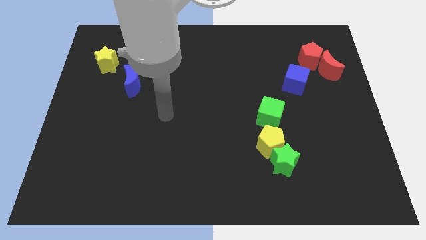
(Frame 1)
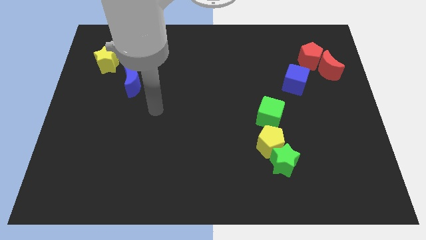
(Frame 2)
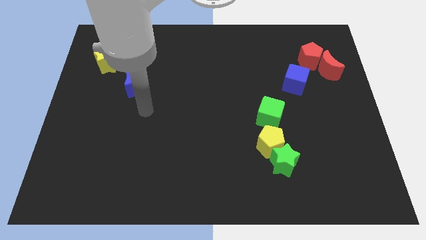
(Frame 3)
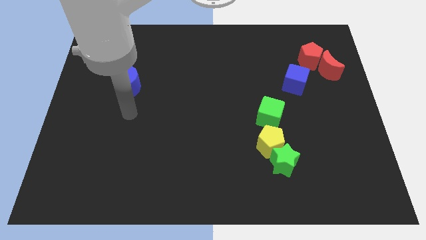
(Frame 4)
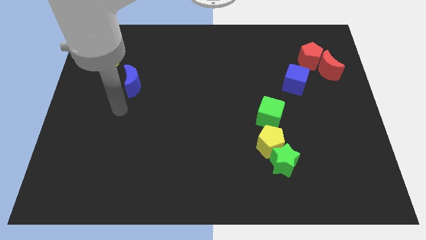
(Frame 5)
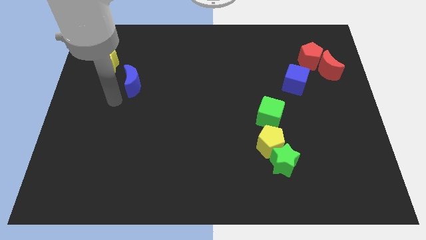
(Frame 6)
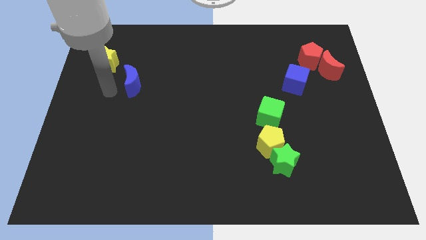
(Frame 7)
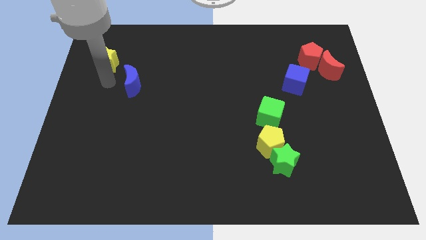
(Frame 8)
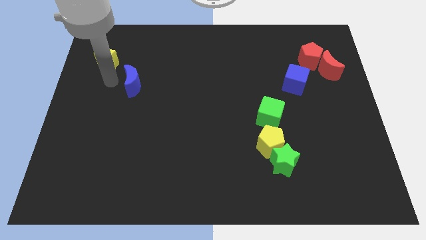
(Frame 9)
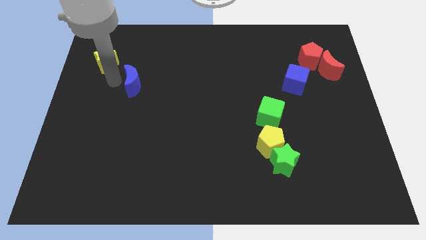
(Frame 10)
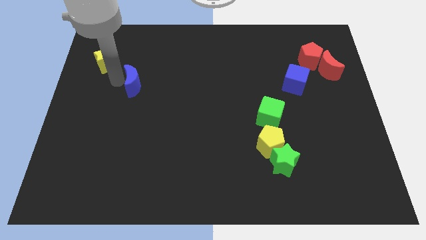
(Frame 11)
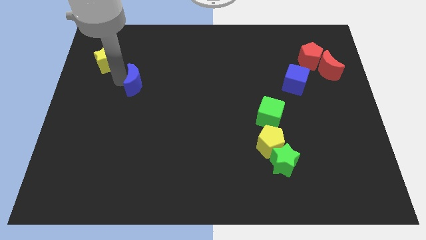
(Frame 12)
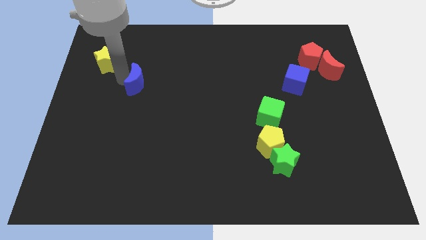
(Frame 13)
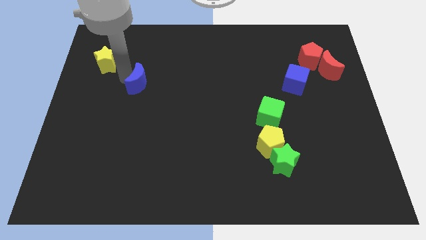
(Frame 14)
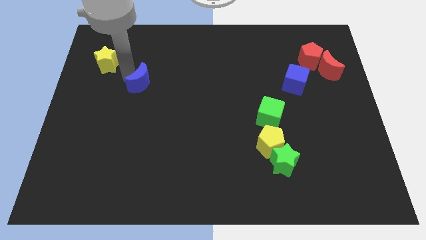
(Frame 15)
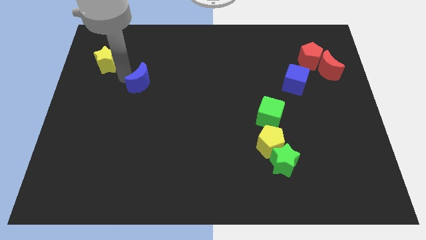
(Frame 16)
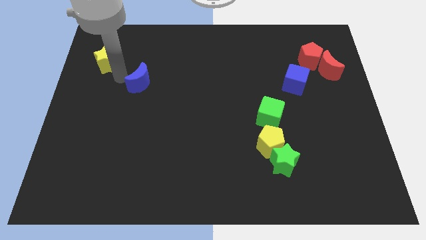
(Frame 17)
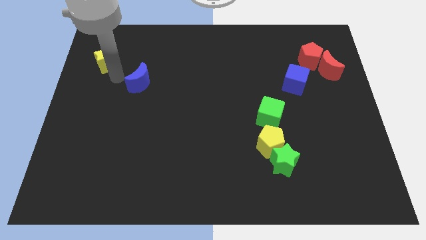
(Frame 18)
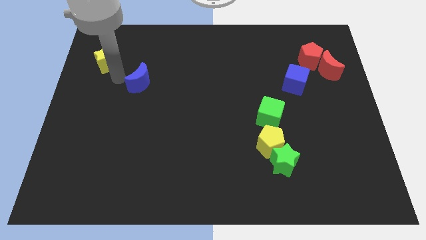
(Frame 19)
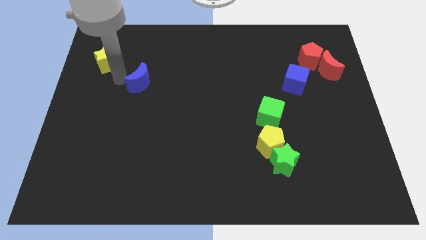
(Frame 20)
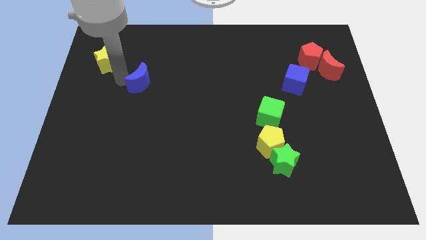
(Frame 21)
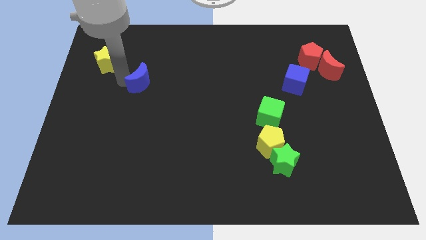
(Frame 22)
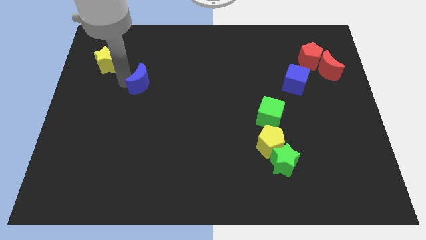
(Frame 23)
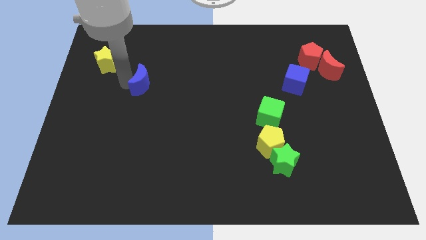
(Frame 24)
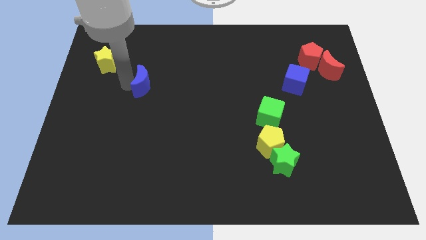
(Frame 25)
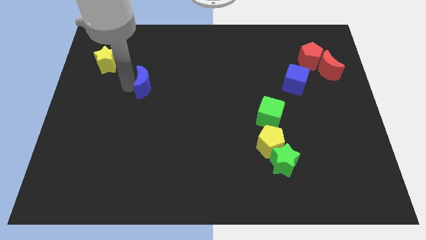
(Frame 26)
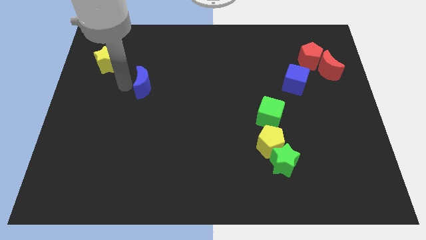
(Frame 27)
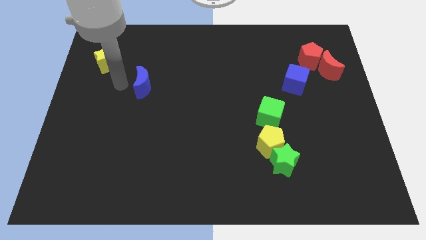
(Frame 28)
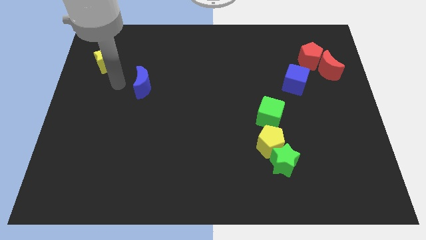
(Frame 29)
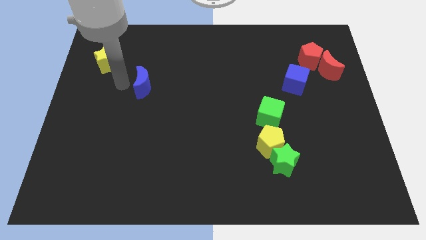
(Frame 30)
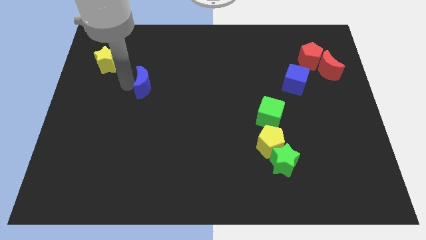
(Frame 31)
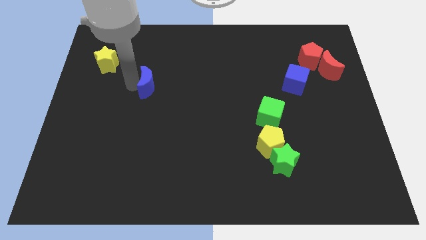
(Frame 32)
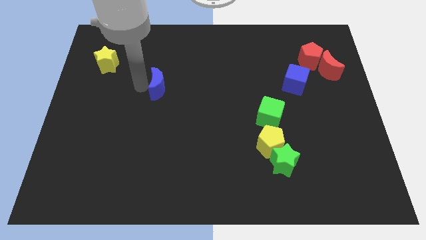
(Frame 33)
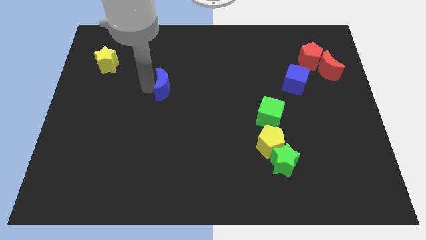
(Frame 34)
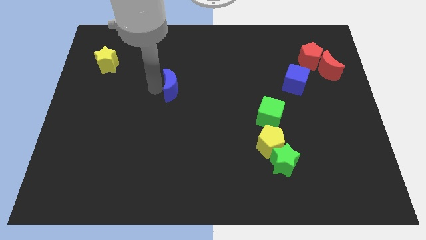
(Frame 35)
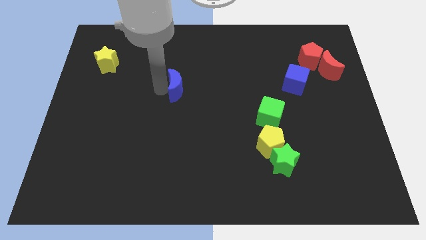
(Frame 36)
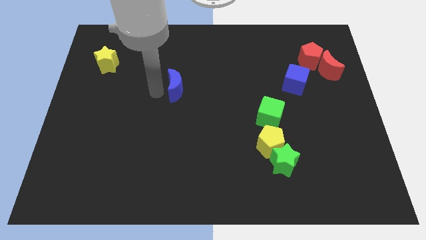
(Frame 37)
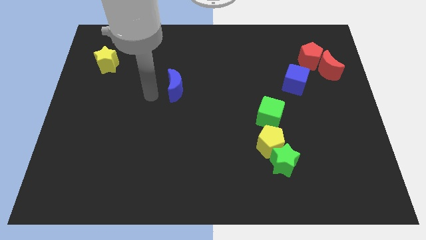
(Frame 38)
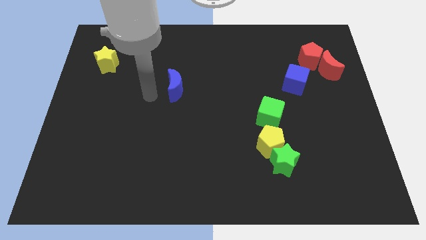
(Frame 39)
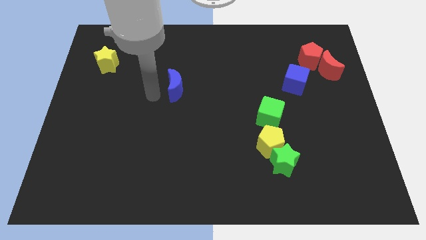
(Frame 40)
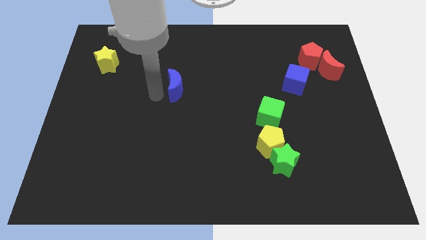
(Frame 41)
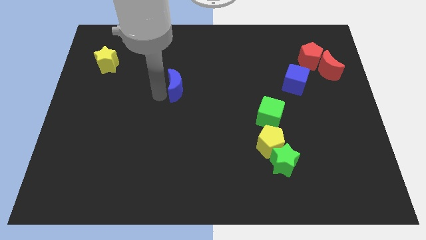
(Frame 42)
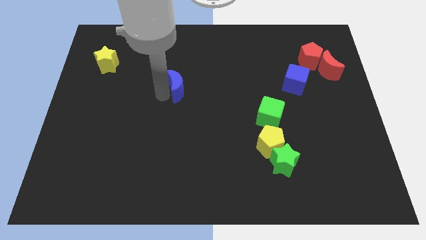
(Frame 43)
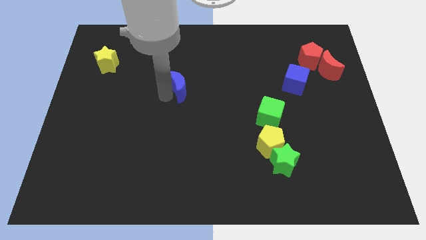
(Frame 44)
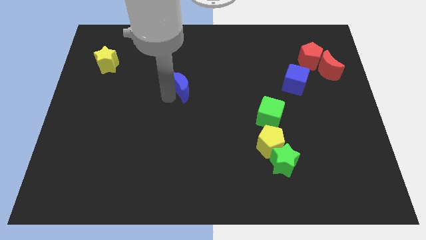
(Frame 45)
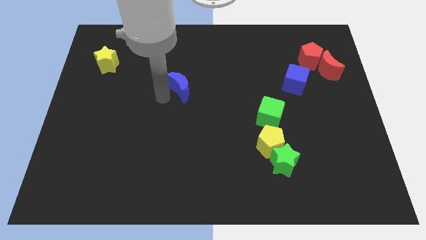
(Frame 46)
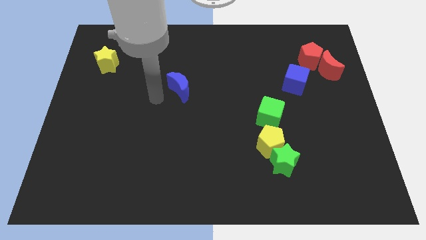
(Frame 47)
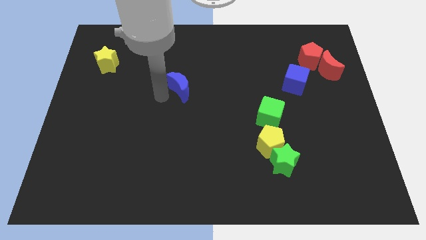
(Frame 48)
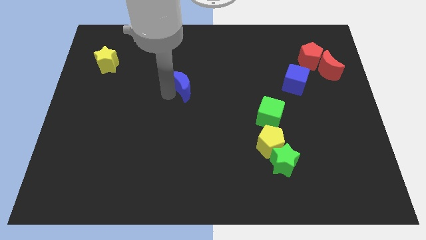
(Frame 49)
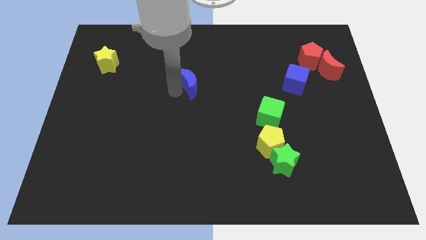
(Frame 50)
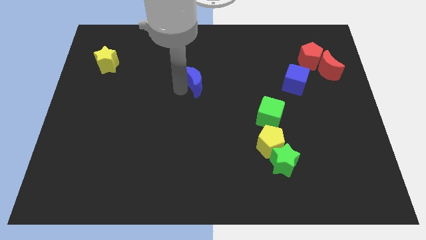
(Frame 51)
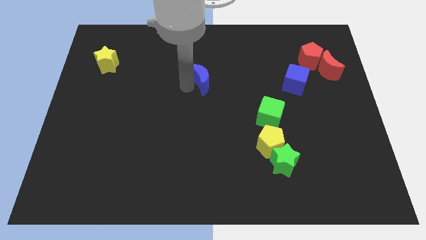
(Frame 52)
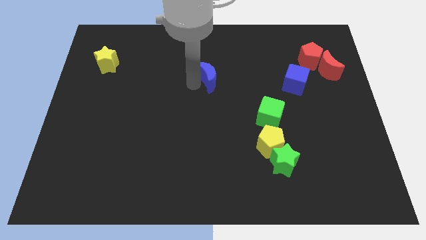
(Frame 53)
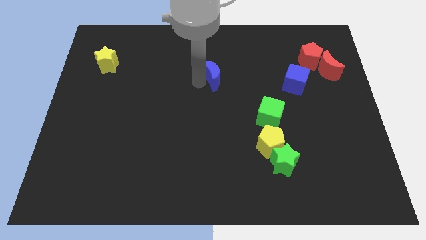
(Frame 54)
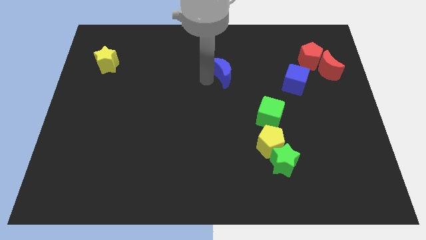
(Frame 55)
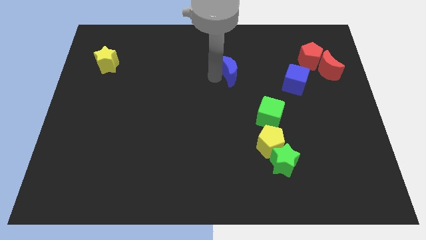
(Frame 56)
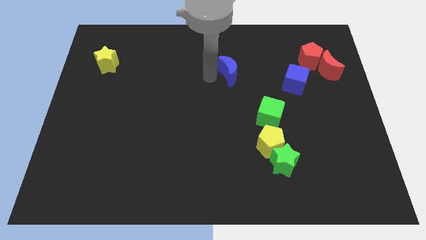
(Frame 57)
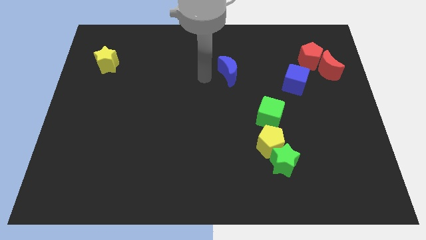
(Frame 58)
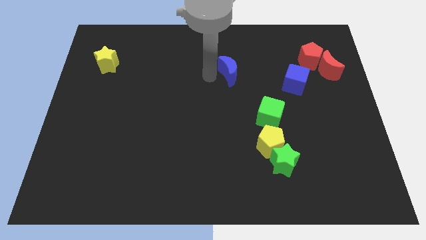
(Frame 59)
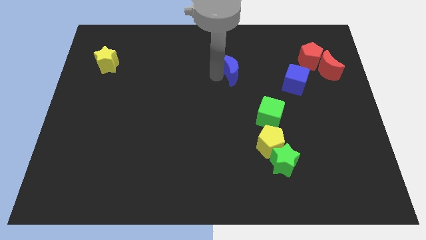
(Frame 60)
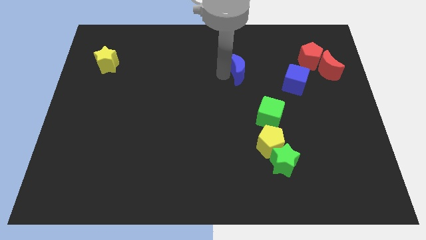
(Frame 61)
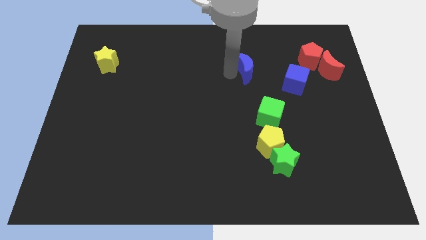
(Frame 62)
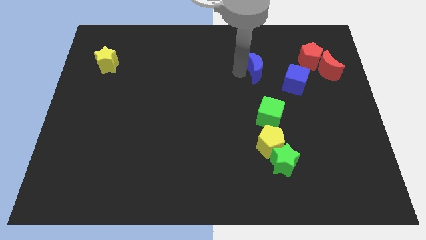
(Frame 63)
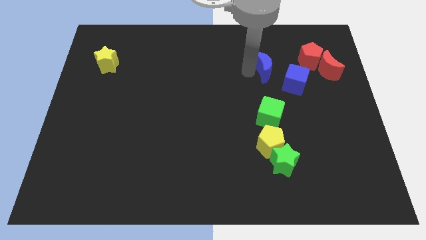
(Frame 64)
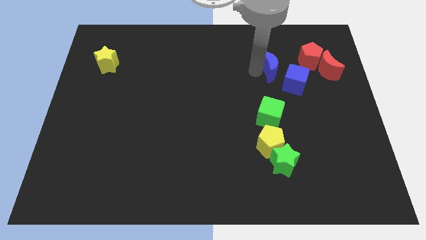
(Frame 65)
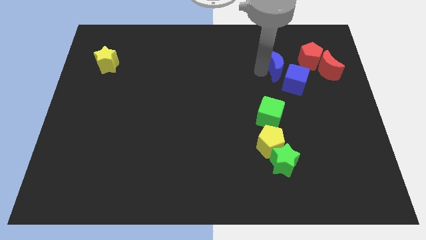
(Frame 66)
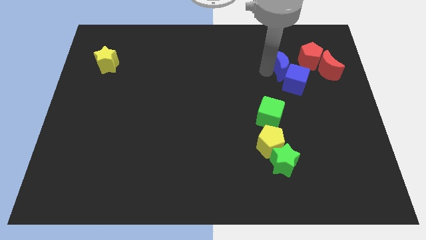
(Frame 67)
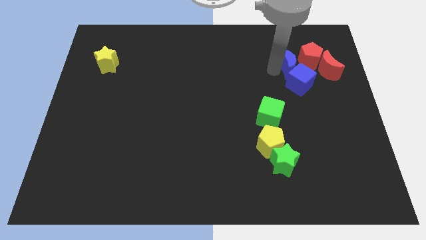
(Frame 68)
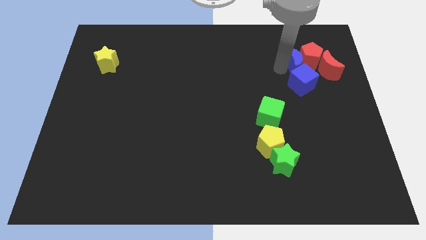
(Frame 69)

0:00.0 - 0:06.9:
put the blue moon next to the red pentagon

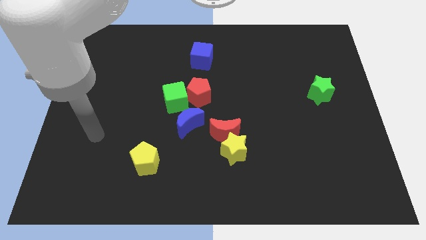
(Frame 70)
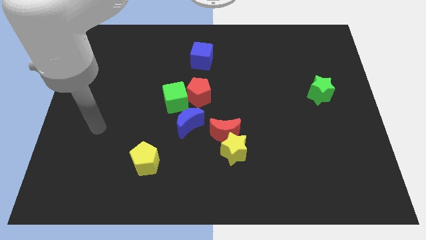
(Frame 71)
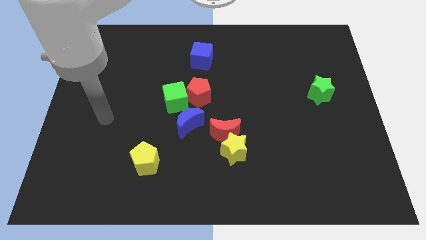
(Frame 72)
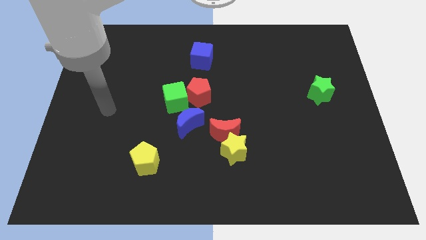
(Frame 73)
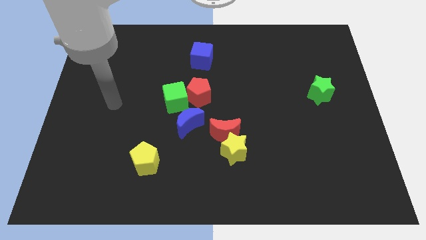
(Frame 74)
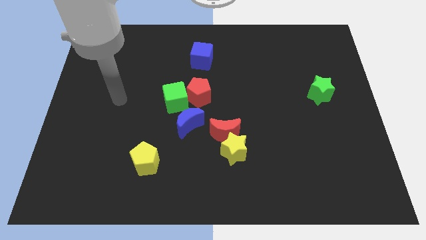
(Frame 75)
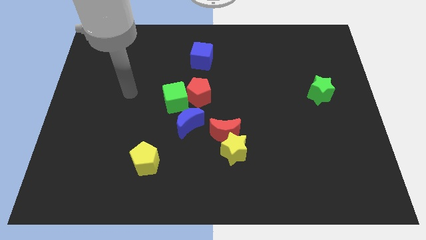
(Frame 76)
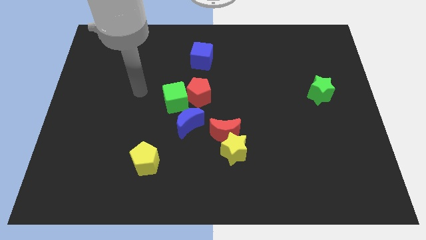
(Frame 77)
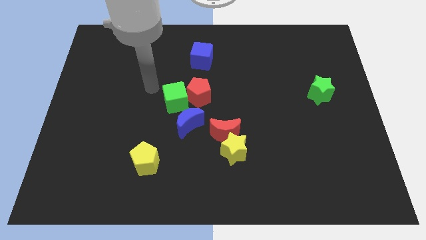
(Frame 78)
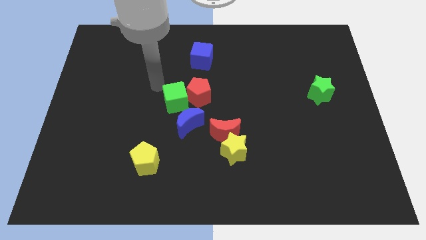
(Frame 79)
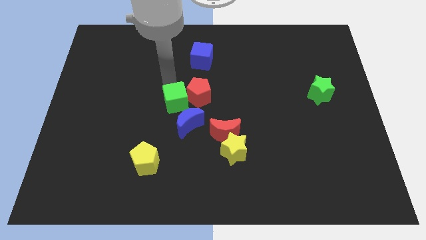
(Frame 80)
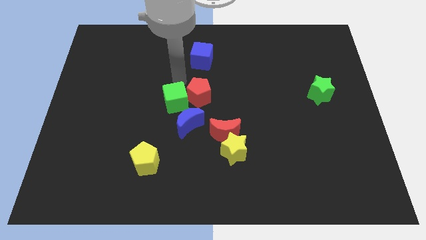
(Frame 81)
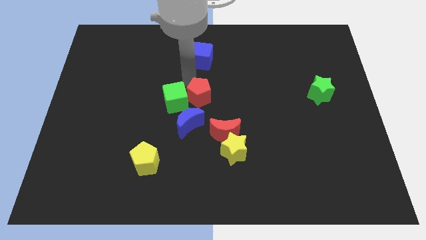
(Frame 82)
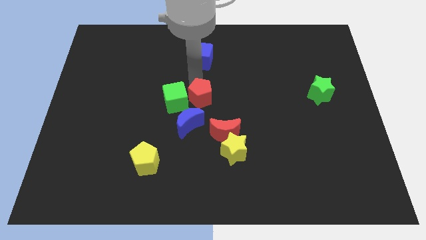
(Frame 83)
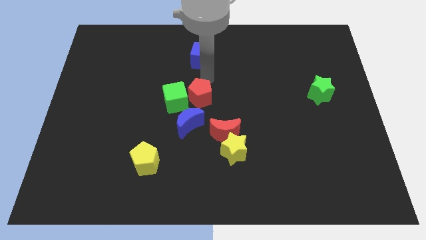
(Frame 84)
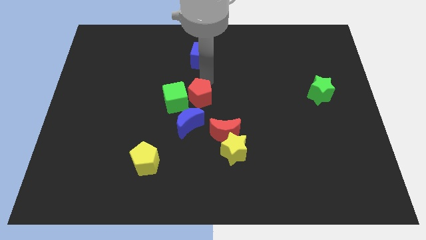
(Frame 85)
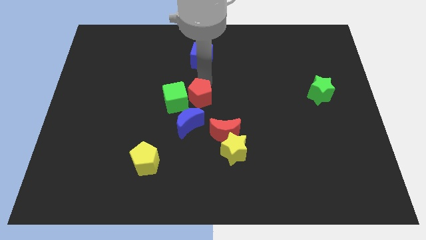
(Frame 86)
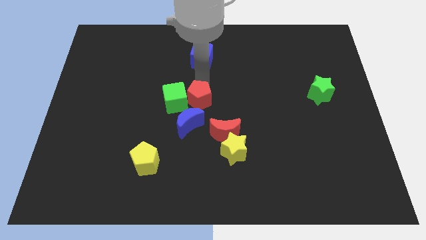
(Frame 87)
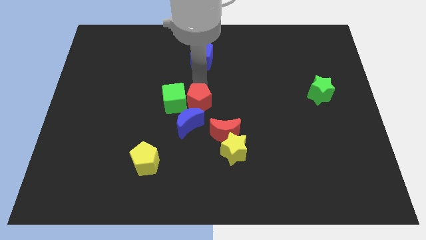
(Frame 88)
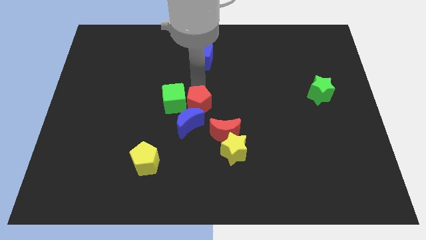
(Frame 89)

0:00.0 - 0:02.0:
slide the red pentagon towards the blue moon
